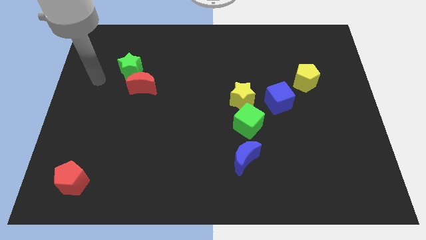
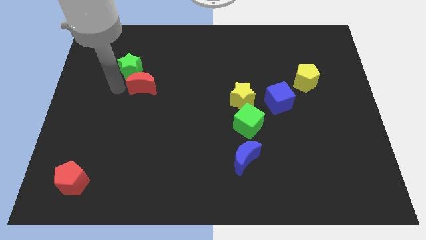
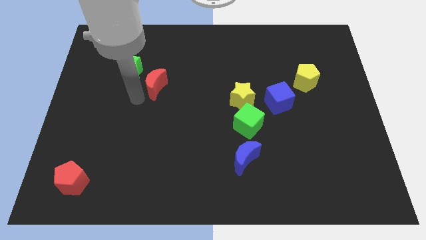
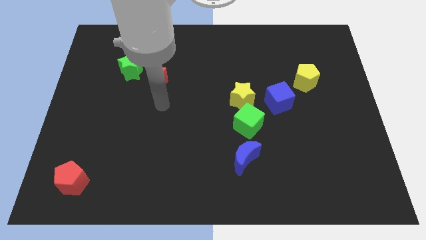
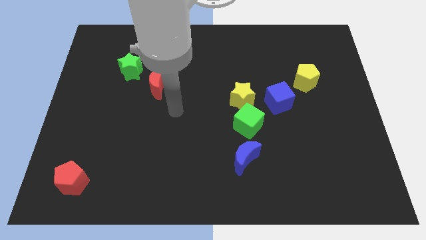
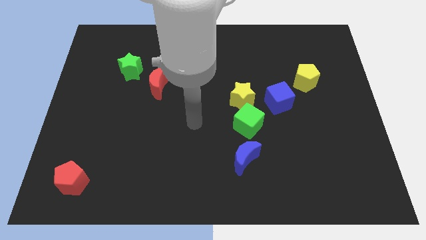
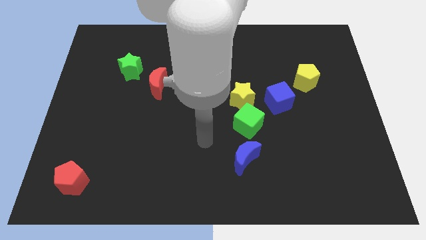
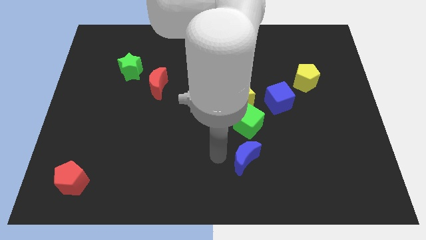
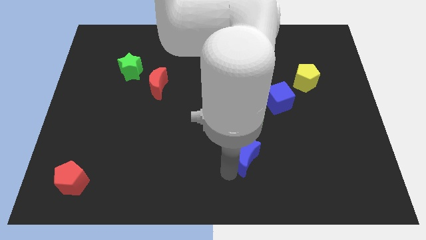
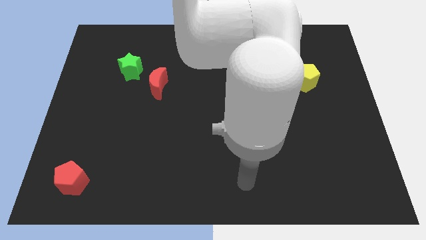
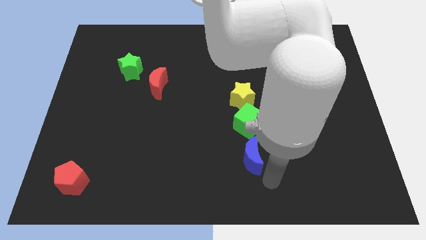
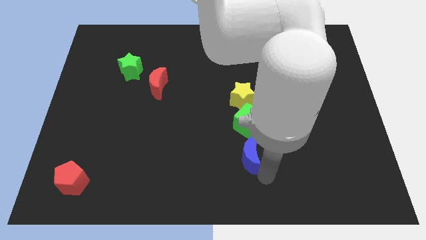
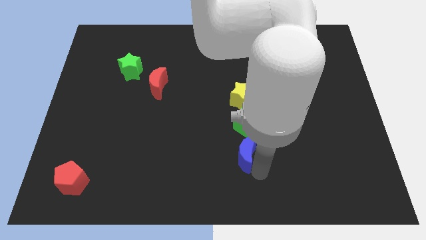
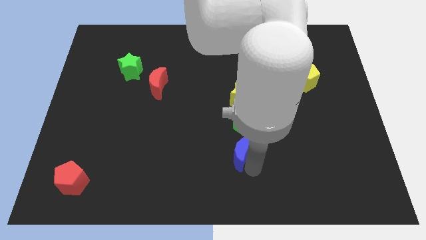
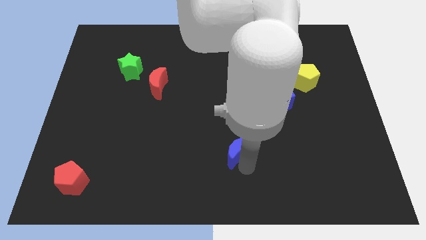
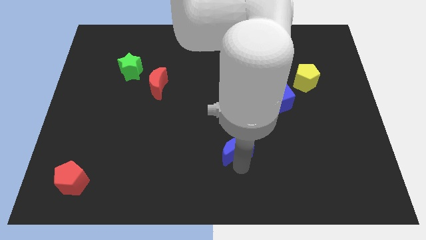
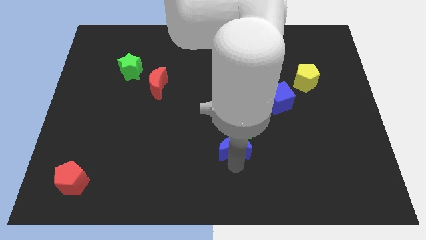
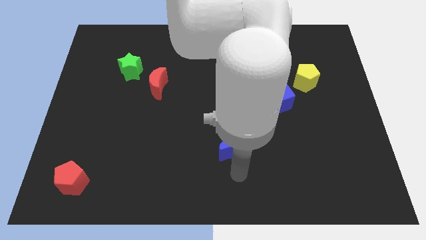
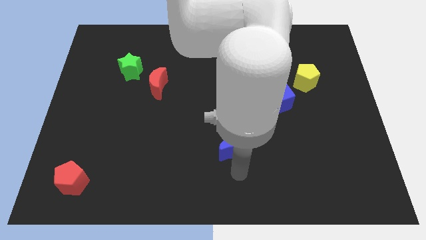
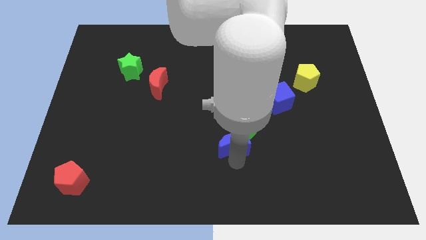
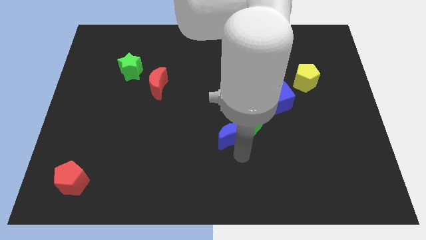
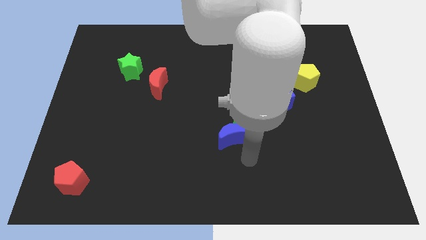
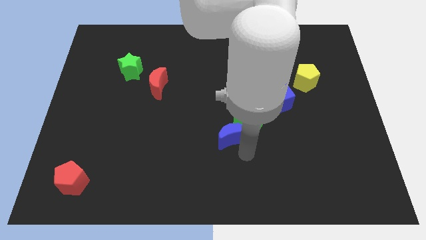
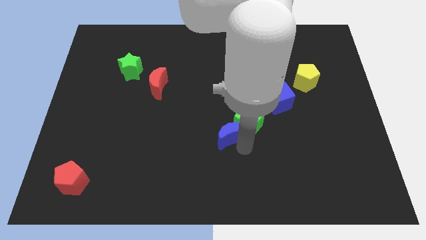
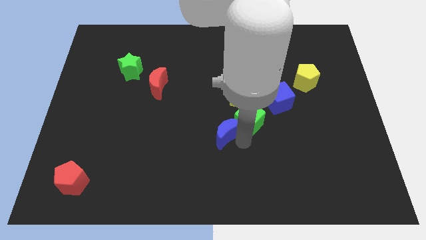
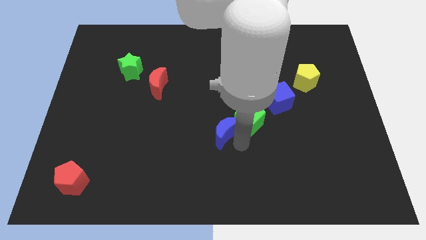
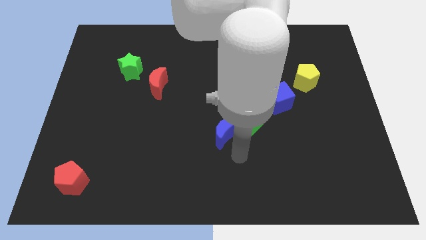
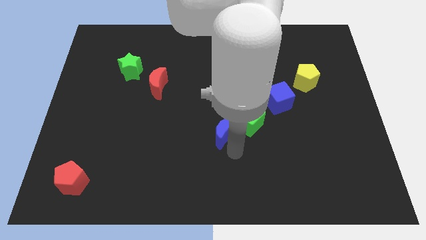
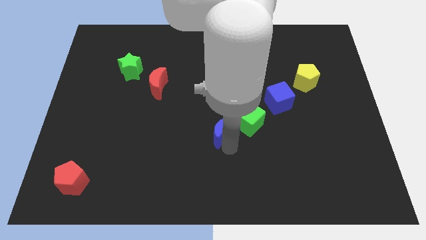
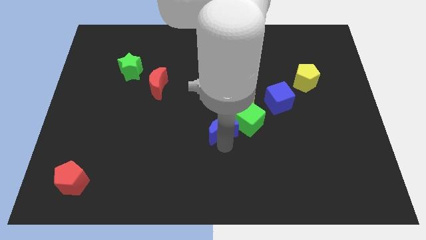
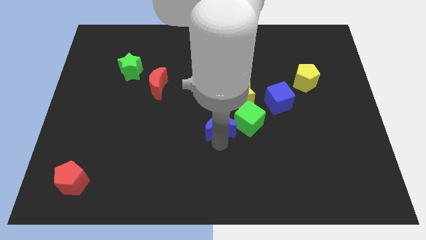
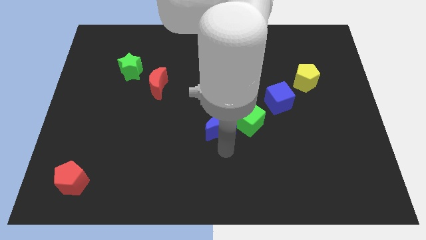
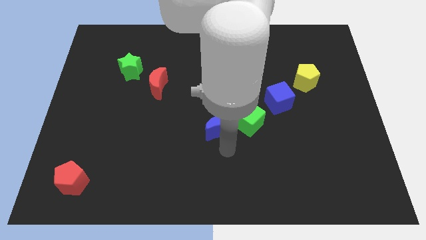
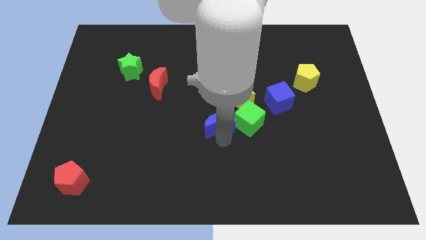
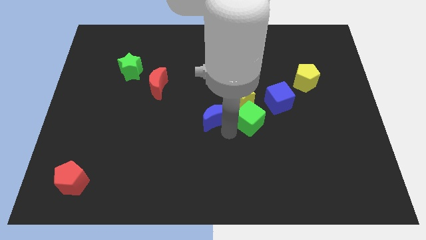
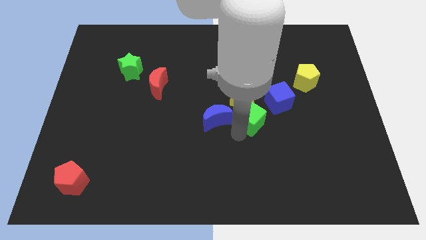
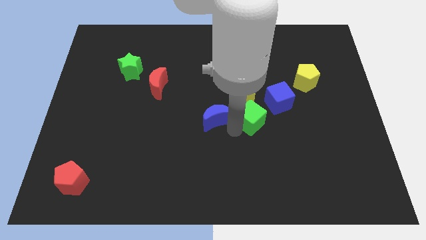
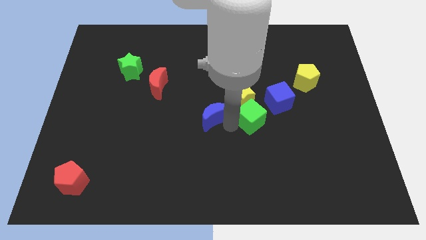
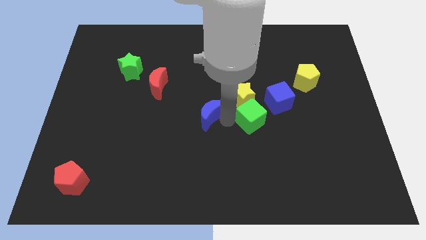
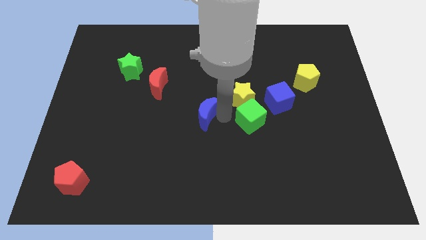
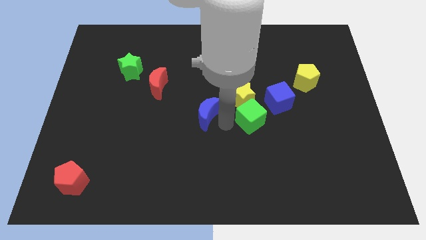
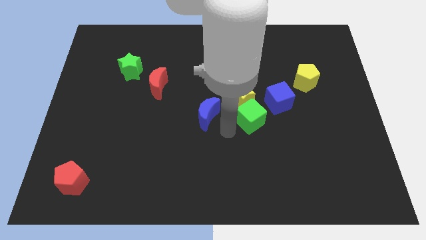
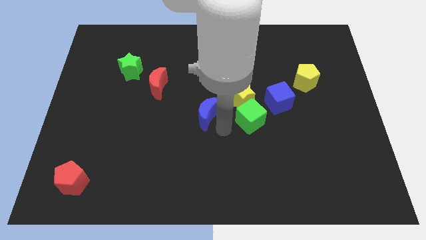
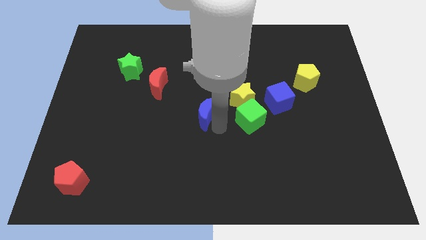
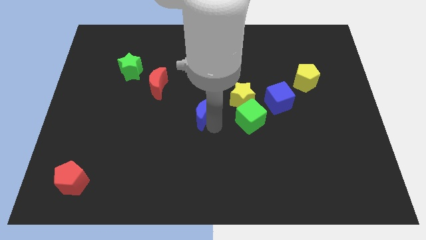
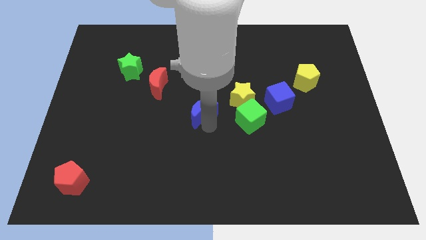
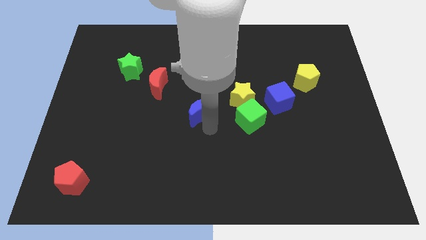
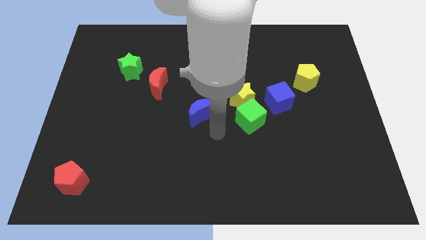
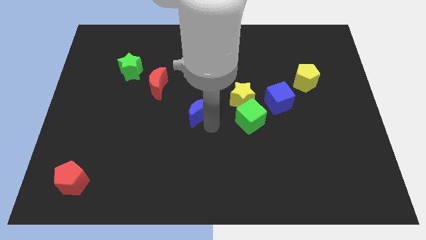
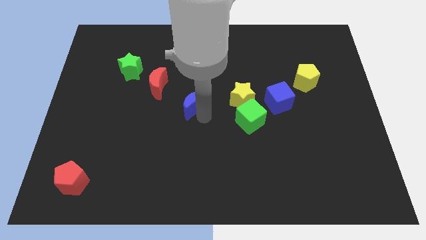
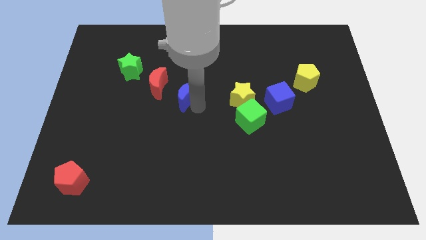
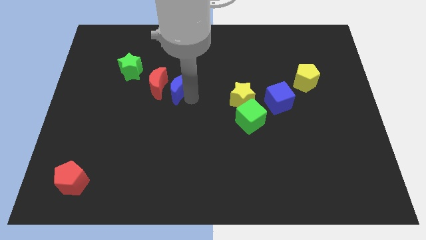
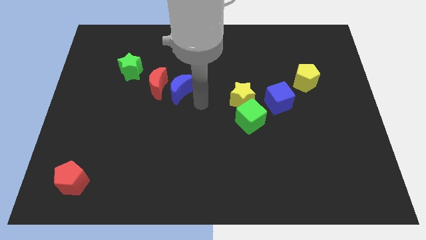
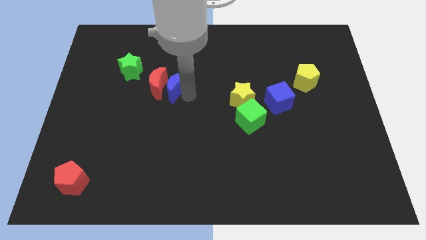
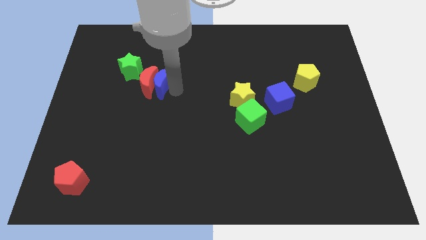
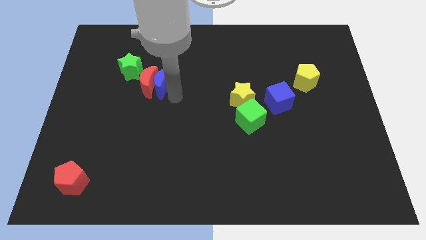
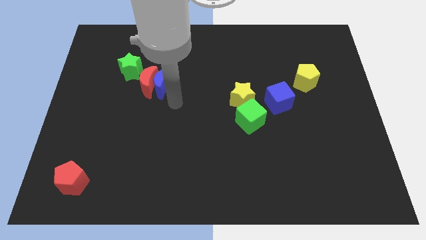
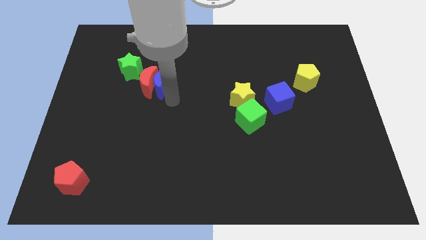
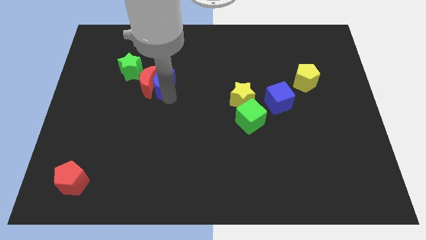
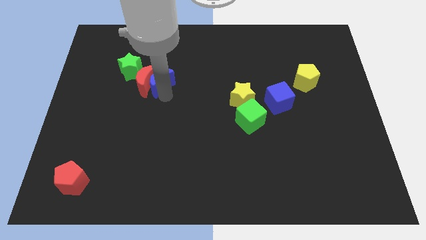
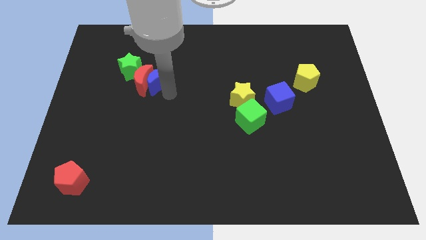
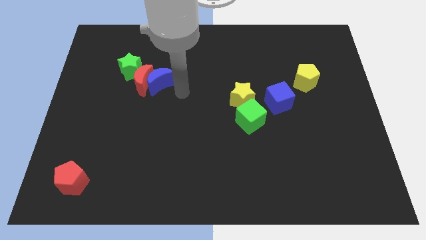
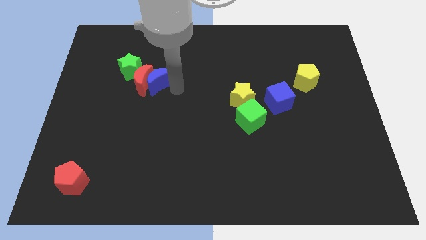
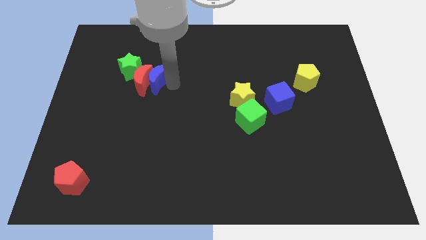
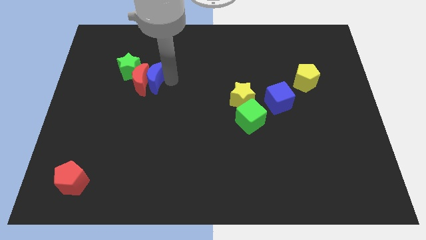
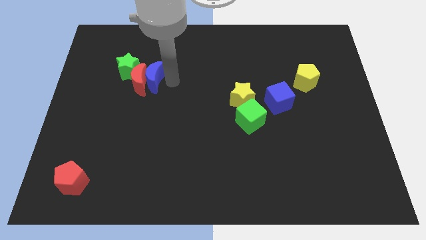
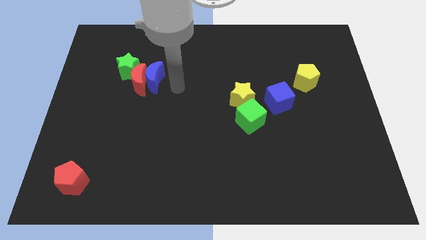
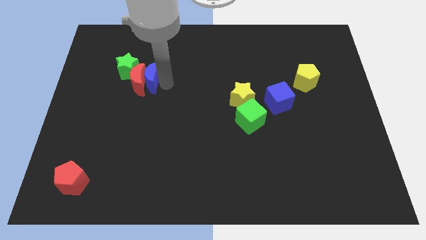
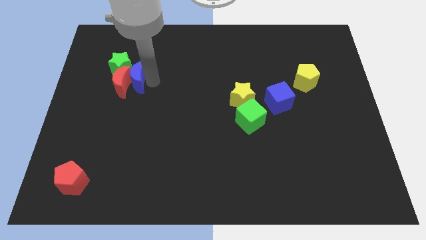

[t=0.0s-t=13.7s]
push the blue moon to the green star

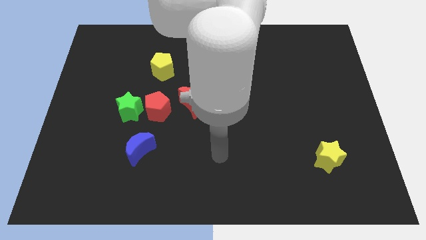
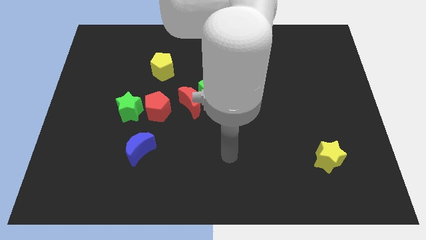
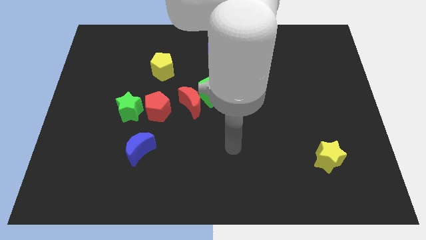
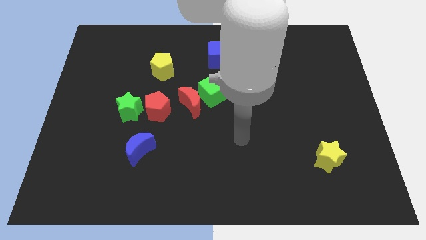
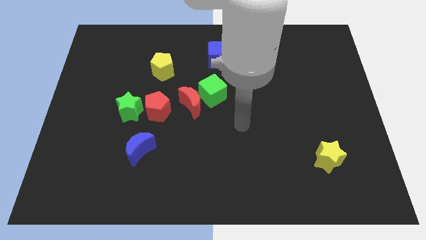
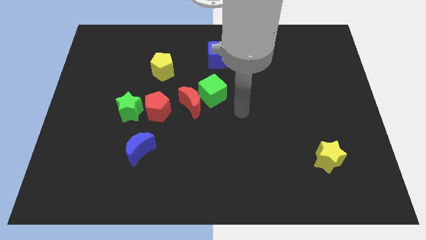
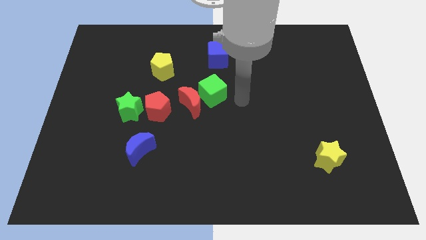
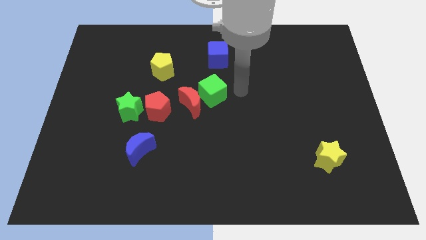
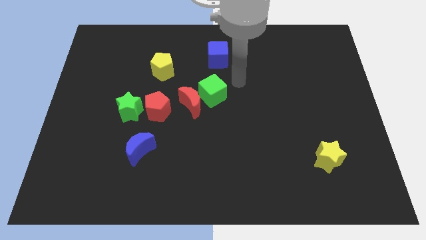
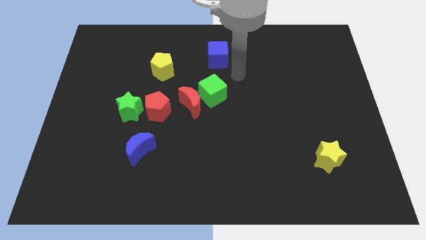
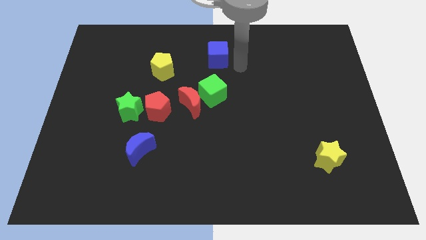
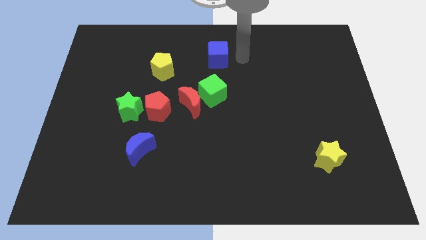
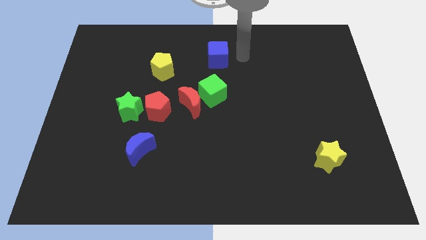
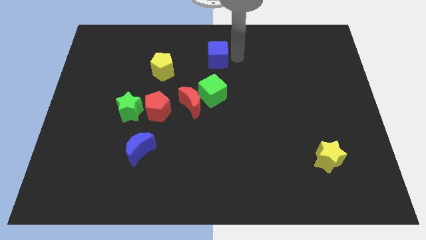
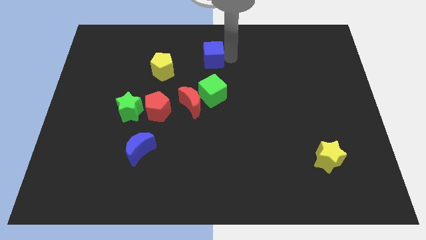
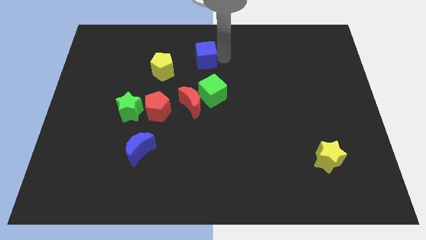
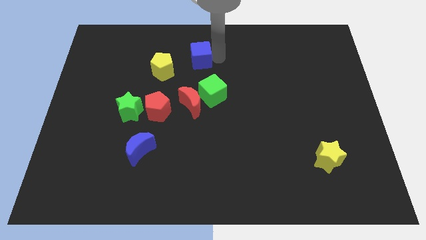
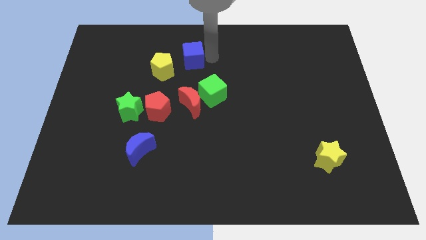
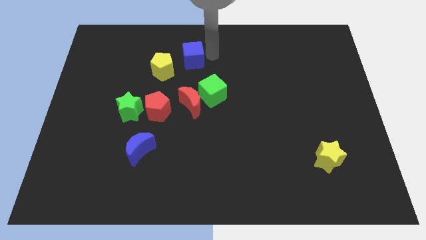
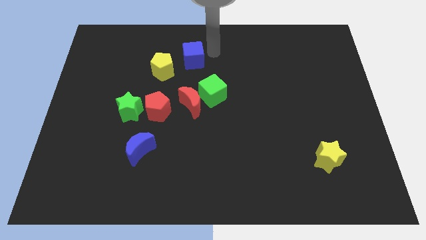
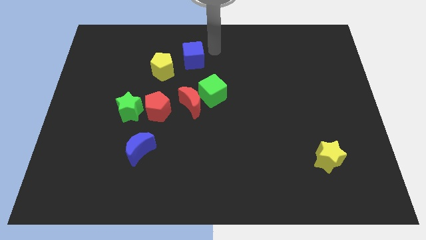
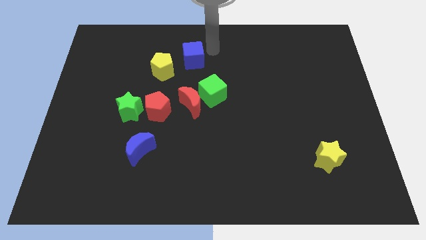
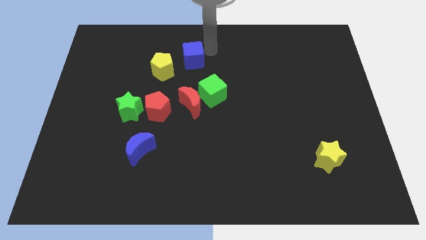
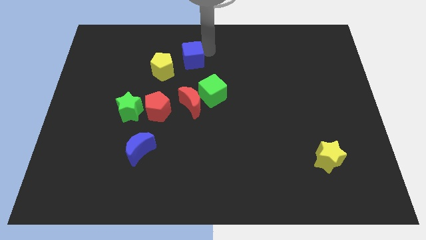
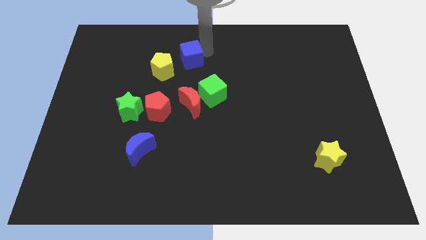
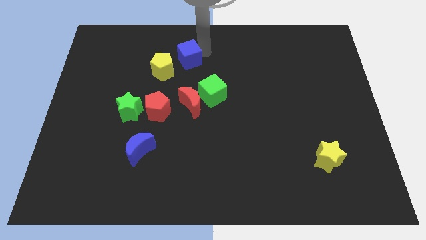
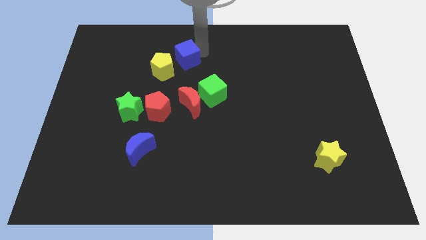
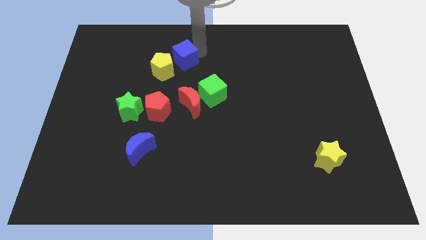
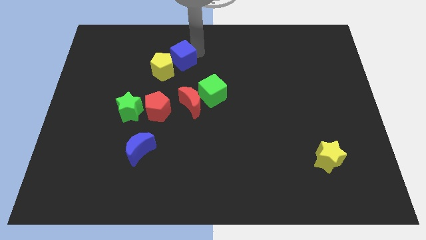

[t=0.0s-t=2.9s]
move the blue cube towards the yellow pentagon
